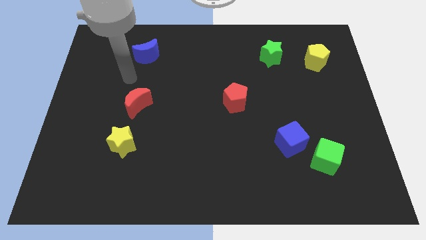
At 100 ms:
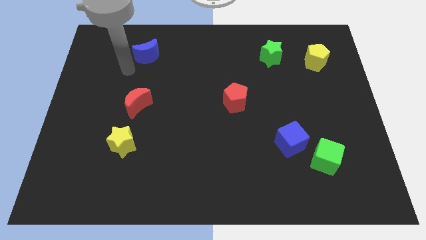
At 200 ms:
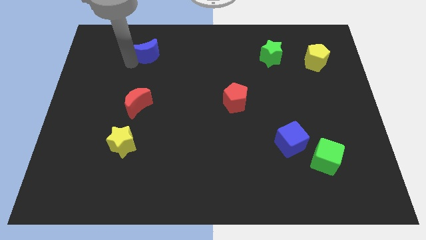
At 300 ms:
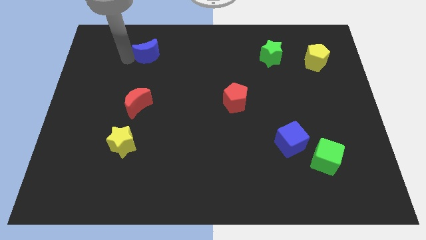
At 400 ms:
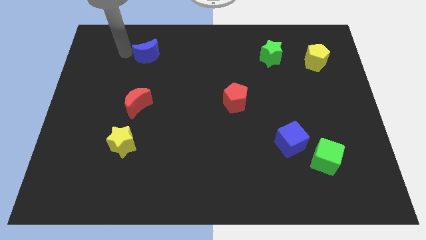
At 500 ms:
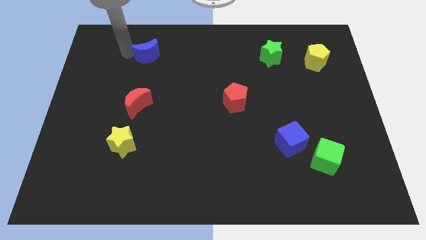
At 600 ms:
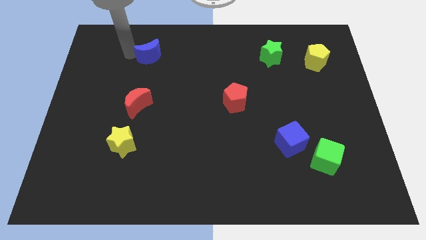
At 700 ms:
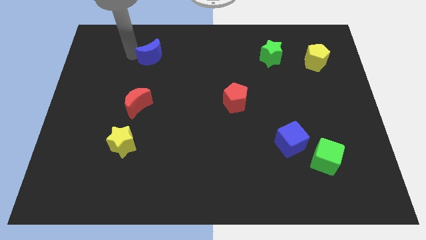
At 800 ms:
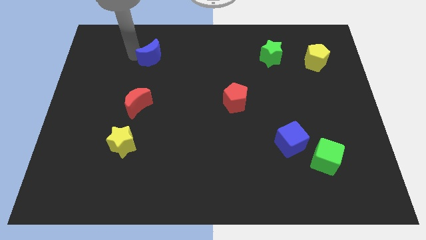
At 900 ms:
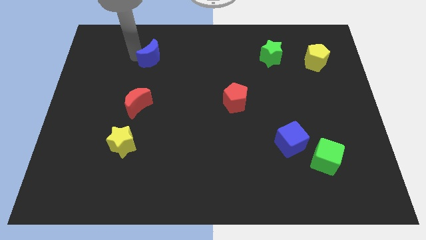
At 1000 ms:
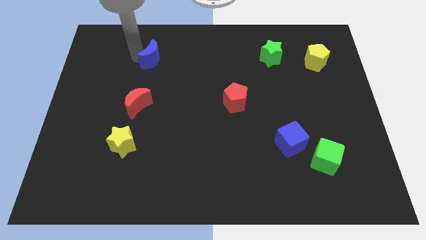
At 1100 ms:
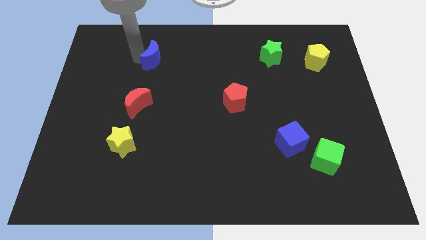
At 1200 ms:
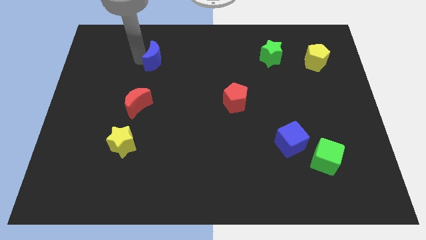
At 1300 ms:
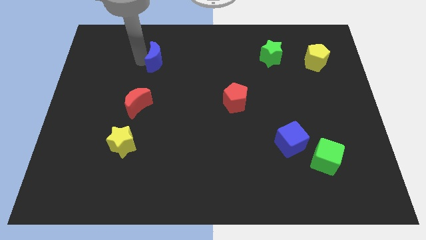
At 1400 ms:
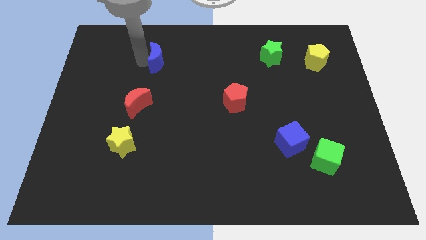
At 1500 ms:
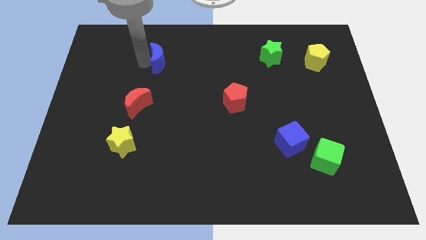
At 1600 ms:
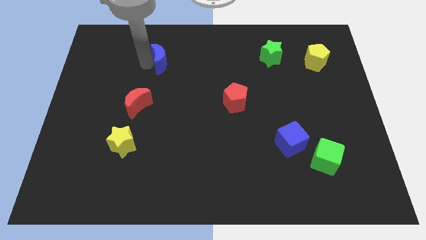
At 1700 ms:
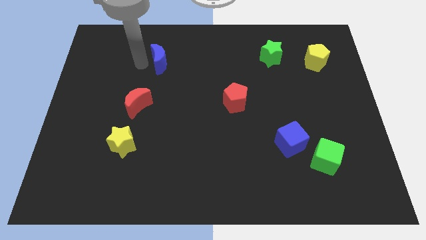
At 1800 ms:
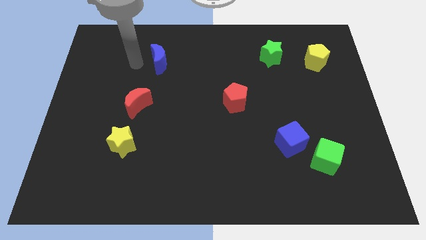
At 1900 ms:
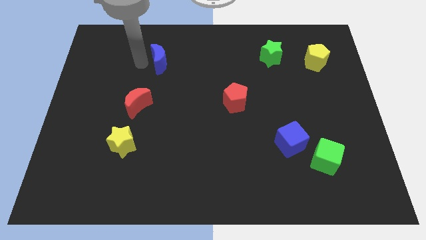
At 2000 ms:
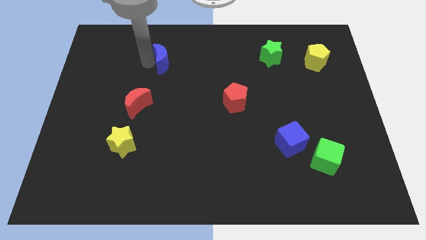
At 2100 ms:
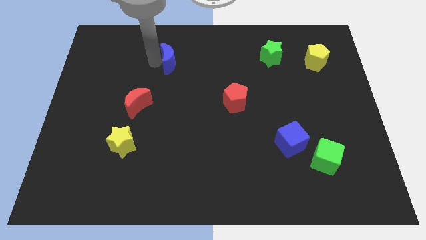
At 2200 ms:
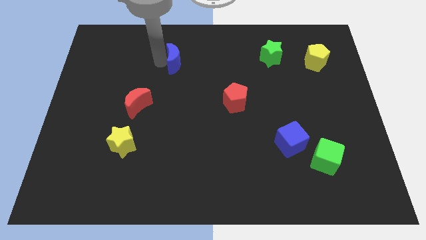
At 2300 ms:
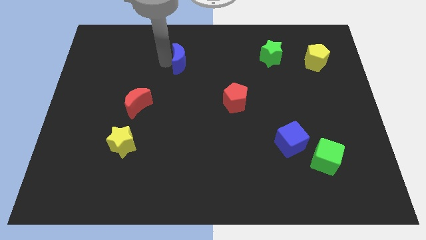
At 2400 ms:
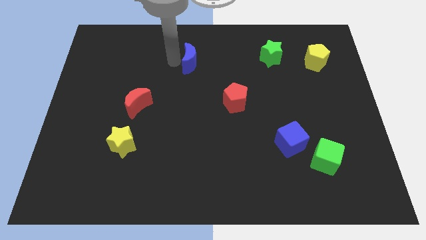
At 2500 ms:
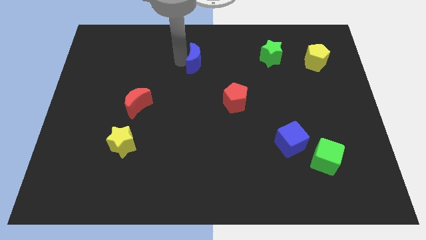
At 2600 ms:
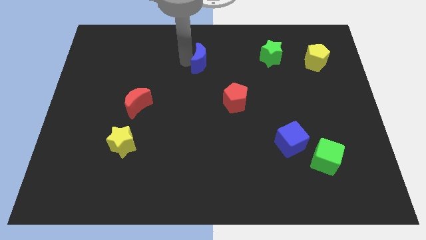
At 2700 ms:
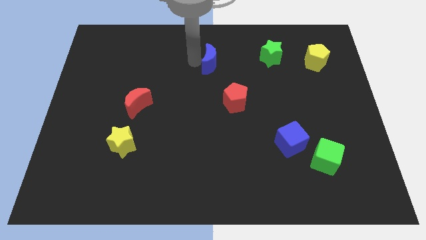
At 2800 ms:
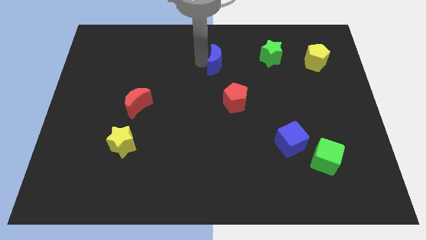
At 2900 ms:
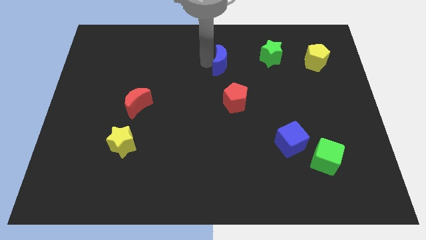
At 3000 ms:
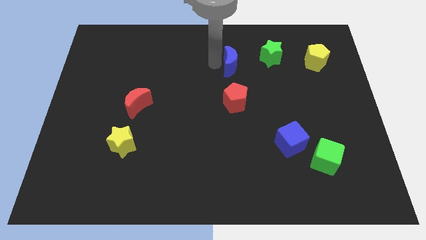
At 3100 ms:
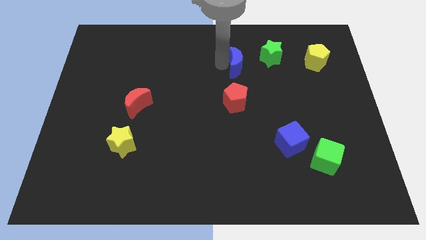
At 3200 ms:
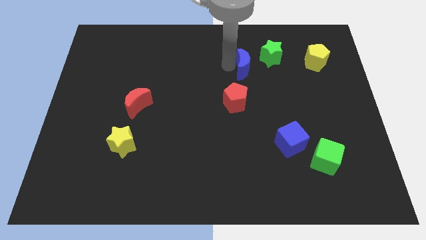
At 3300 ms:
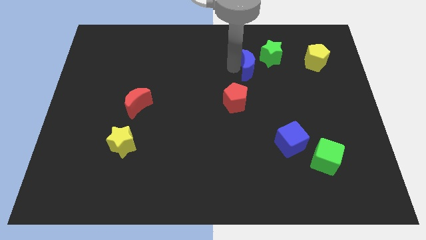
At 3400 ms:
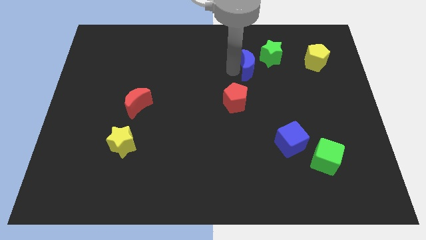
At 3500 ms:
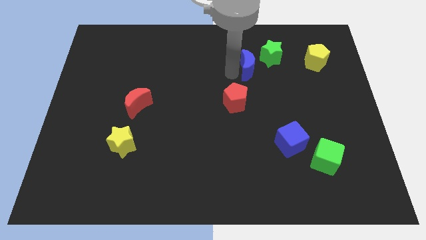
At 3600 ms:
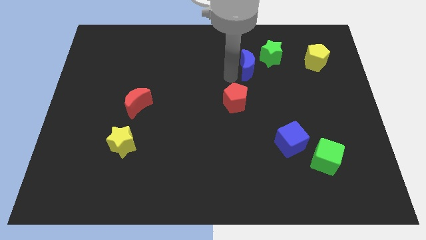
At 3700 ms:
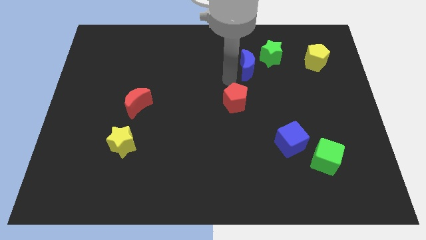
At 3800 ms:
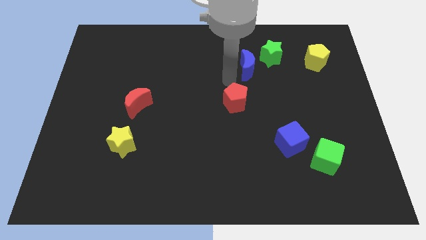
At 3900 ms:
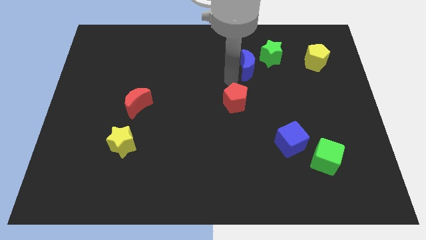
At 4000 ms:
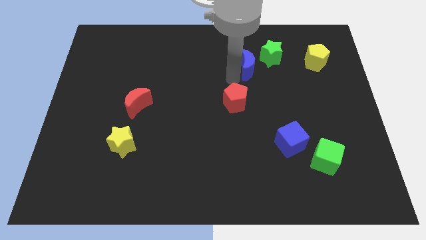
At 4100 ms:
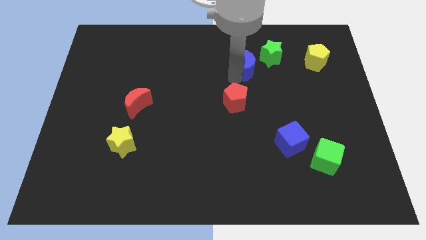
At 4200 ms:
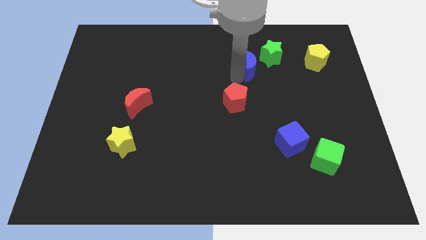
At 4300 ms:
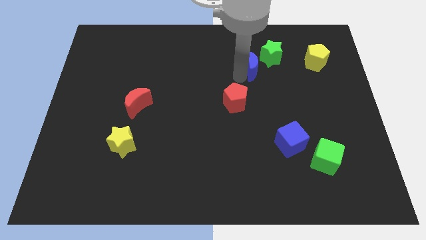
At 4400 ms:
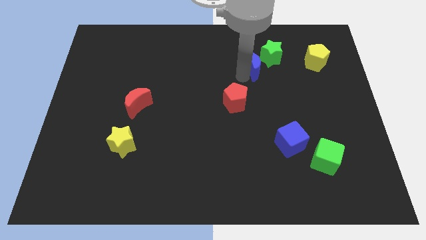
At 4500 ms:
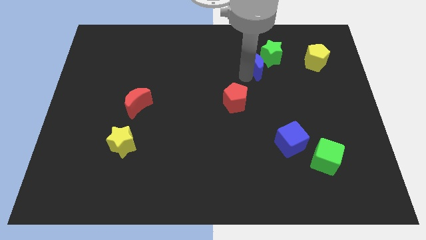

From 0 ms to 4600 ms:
slide the blue moon to the green star

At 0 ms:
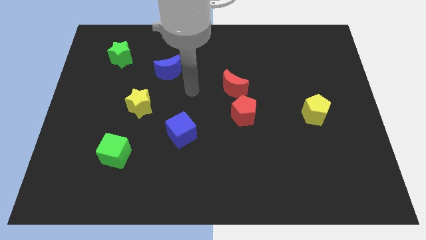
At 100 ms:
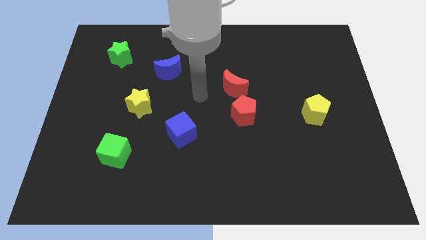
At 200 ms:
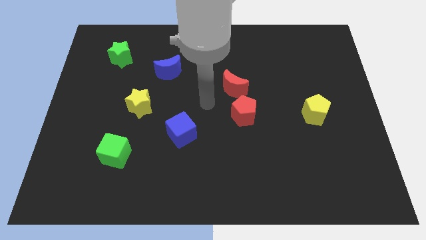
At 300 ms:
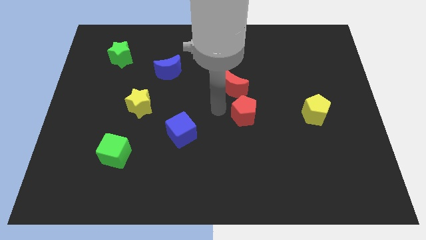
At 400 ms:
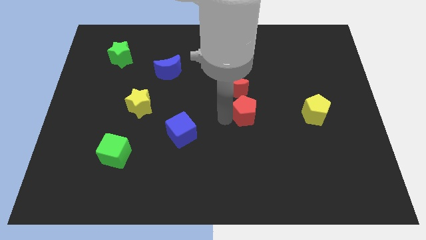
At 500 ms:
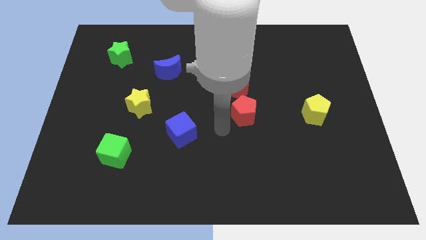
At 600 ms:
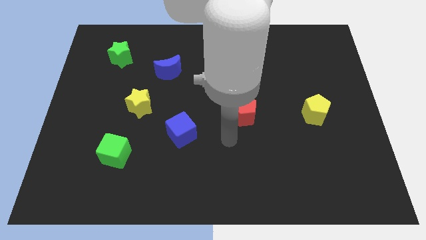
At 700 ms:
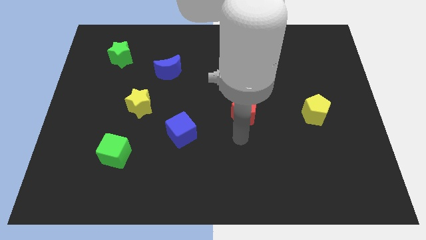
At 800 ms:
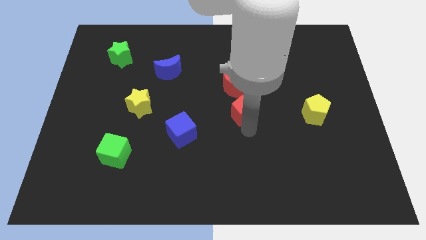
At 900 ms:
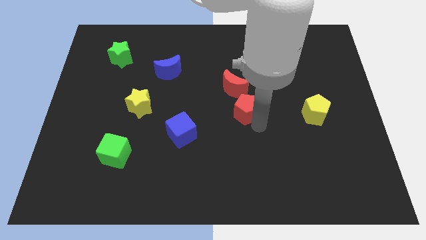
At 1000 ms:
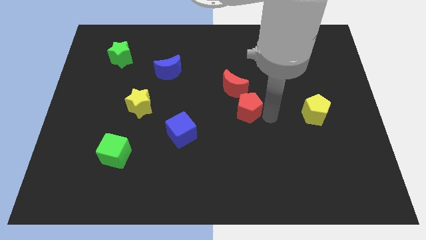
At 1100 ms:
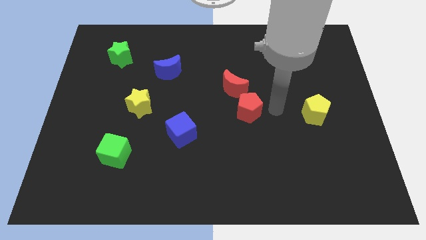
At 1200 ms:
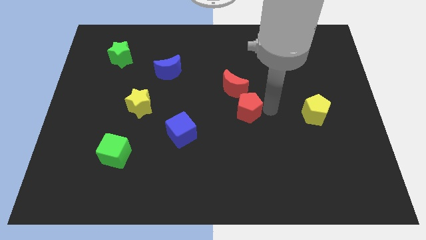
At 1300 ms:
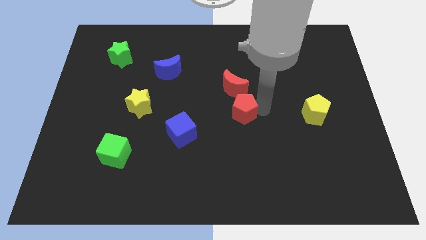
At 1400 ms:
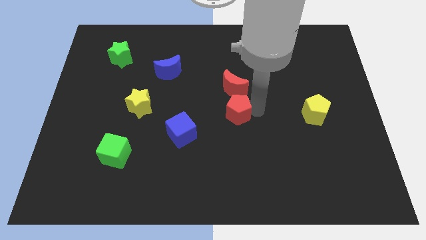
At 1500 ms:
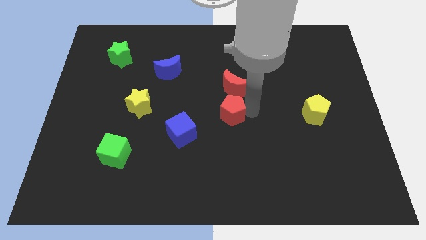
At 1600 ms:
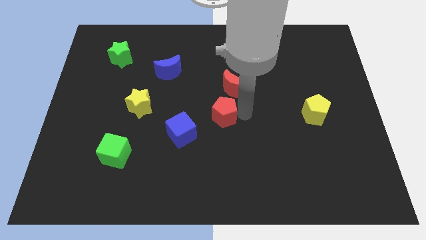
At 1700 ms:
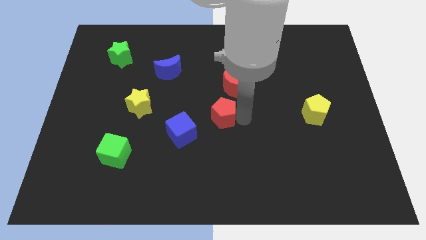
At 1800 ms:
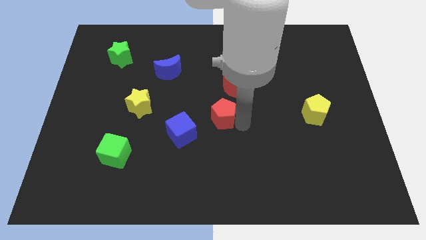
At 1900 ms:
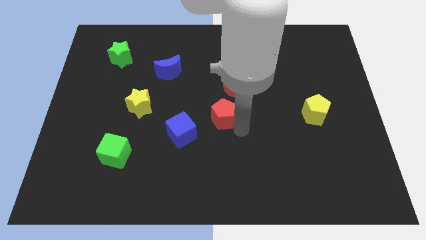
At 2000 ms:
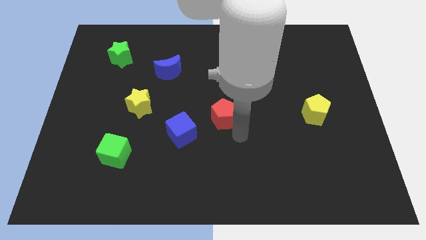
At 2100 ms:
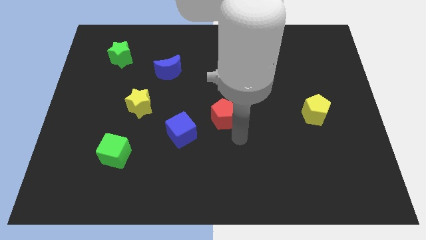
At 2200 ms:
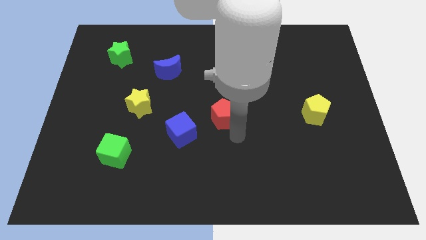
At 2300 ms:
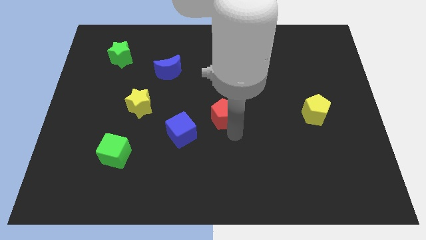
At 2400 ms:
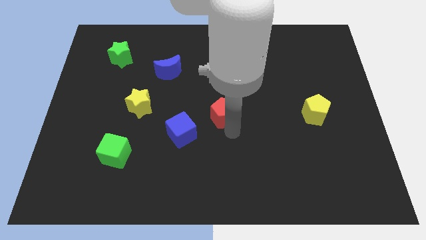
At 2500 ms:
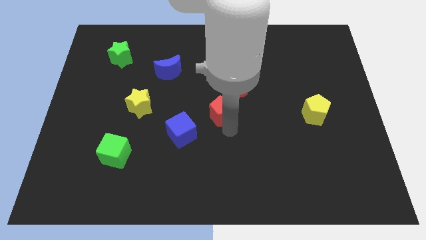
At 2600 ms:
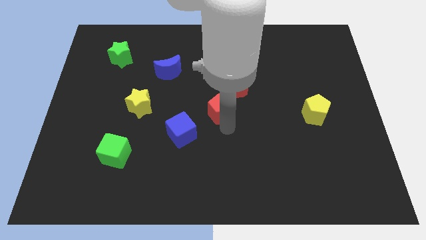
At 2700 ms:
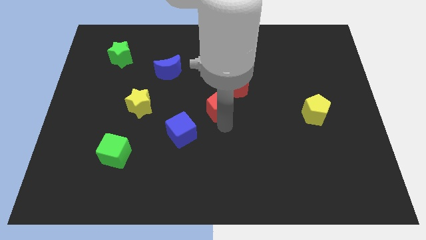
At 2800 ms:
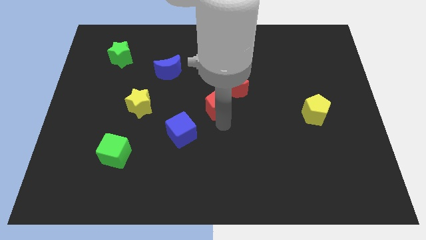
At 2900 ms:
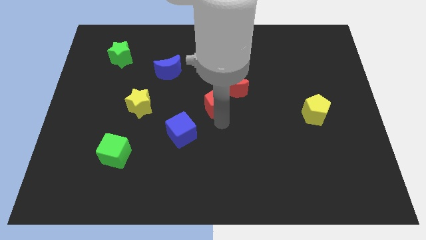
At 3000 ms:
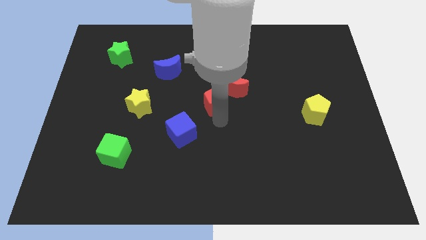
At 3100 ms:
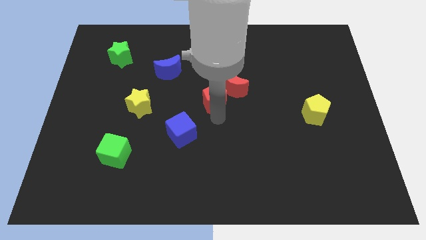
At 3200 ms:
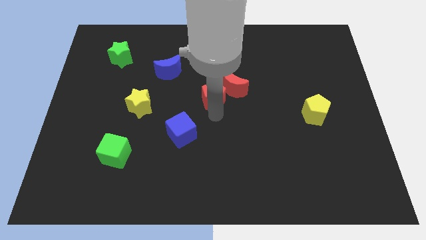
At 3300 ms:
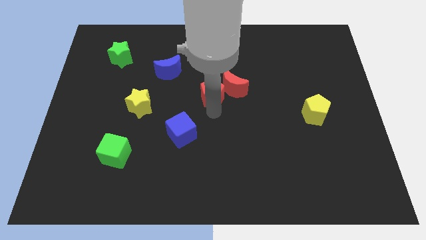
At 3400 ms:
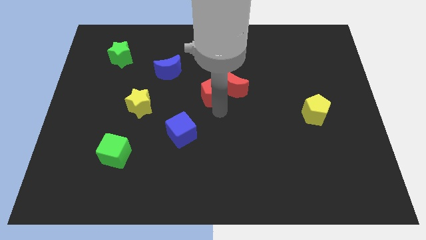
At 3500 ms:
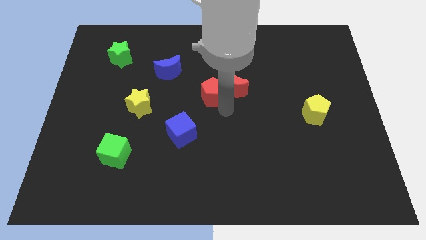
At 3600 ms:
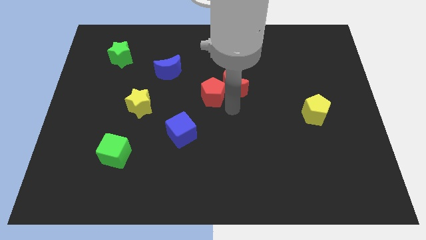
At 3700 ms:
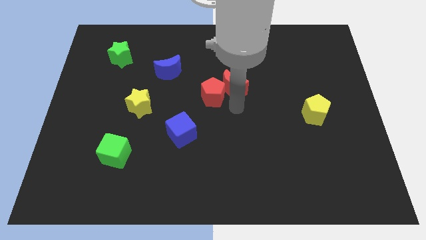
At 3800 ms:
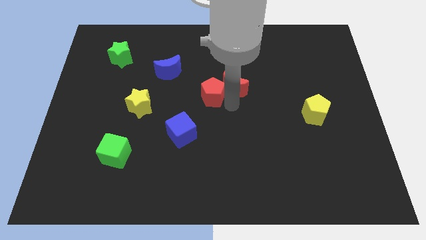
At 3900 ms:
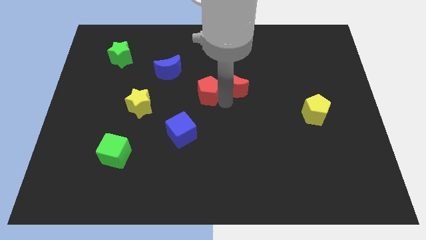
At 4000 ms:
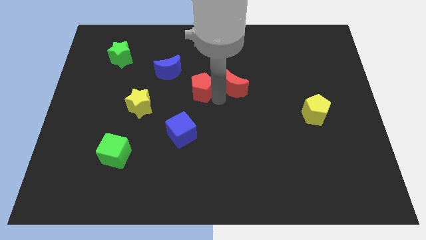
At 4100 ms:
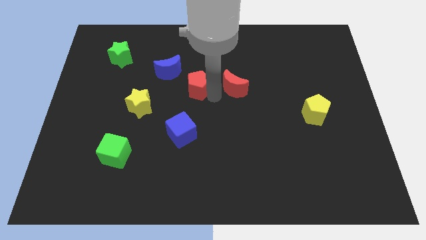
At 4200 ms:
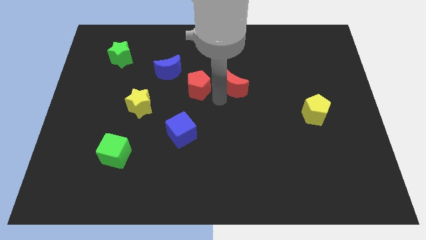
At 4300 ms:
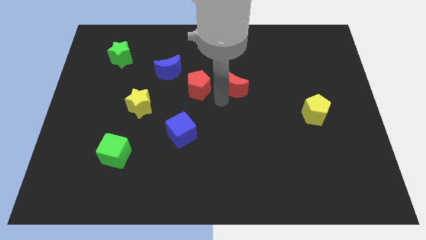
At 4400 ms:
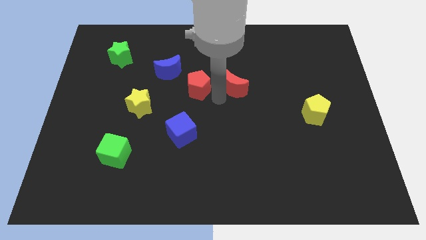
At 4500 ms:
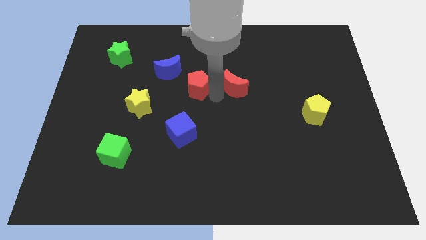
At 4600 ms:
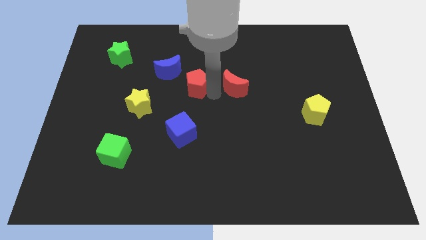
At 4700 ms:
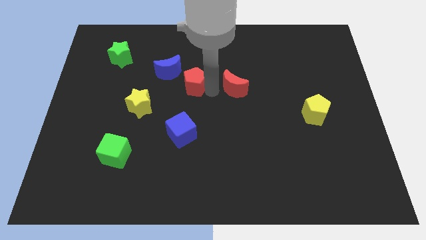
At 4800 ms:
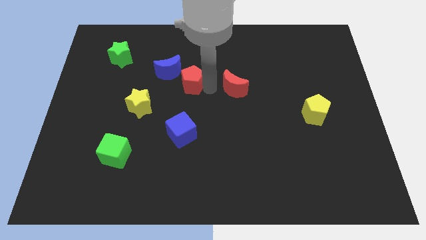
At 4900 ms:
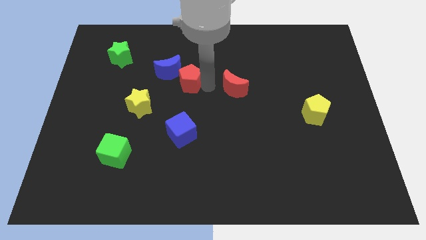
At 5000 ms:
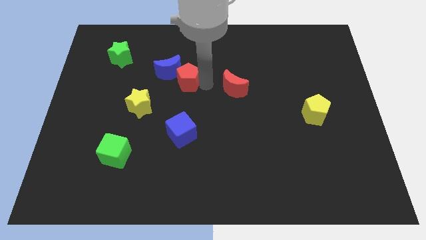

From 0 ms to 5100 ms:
slide the red pentagon close to the blue moon
